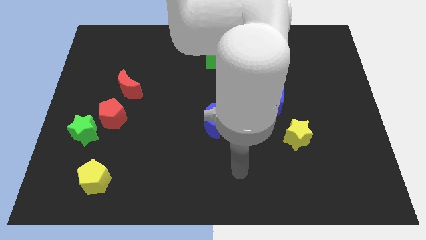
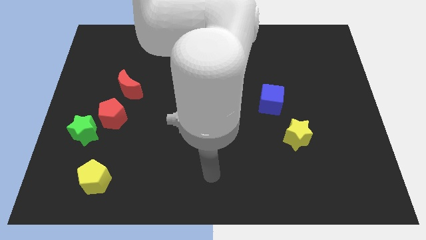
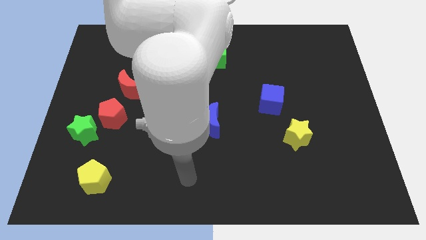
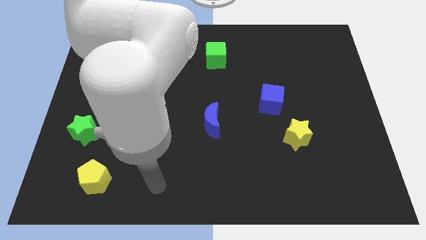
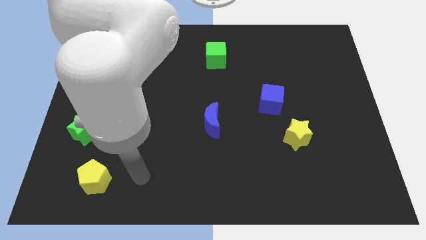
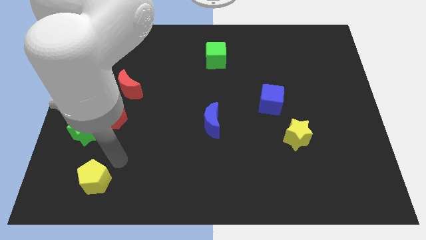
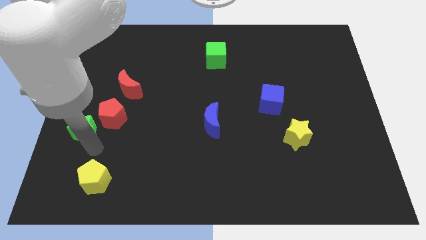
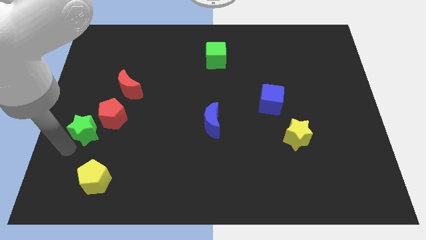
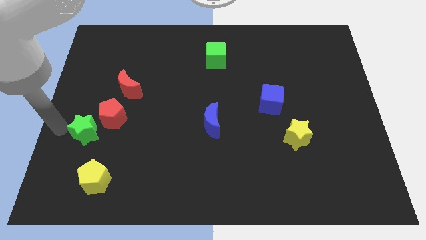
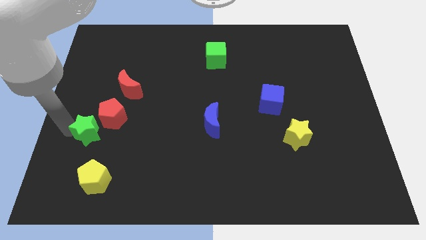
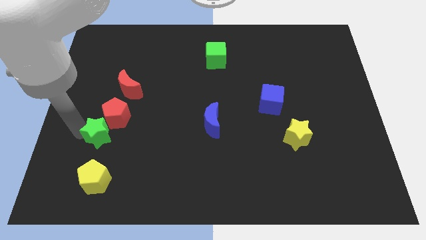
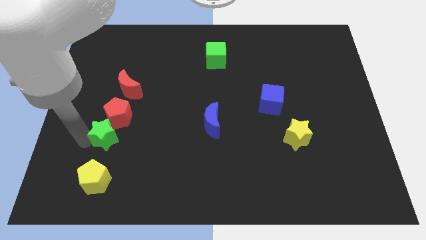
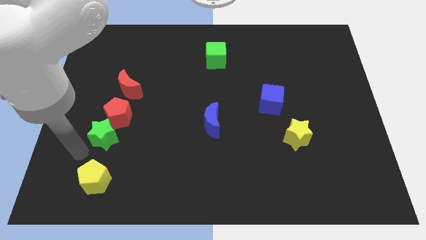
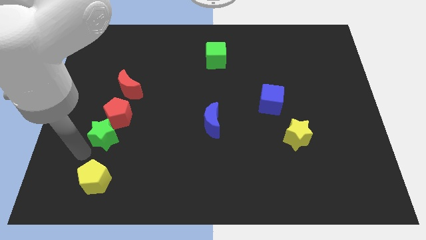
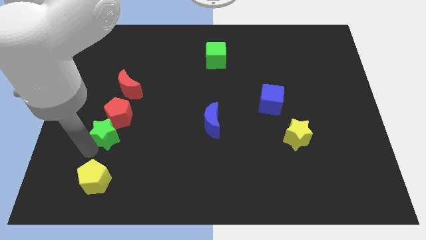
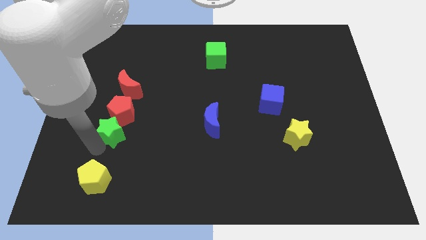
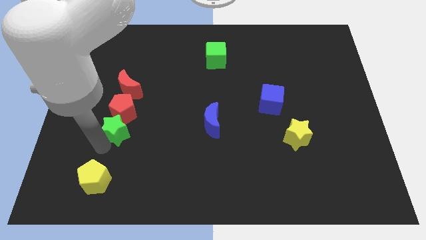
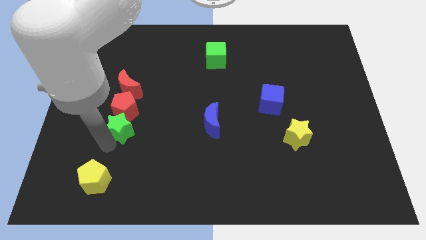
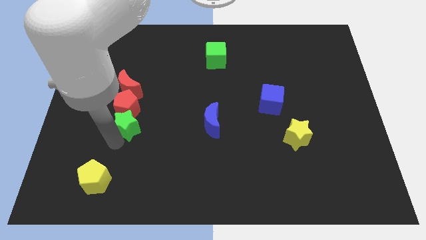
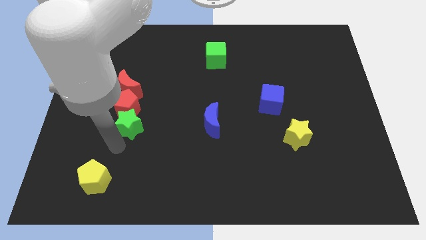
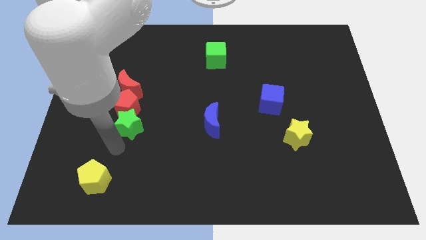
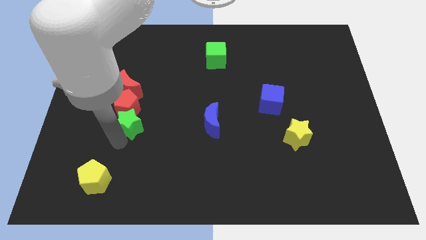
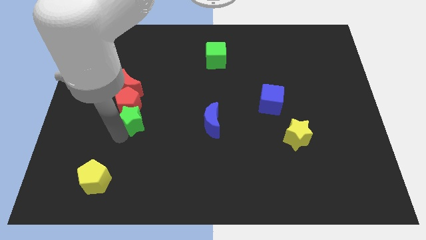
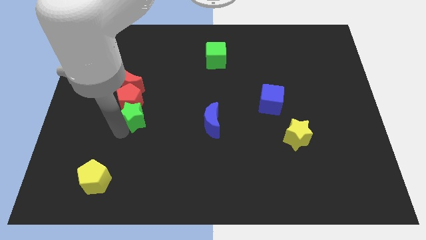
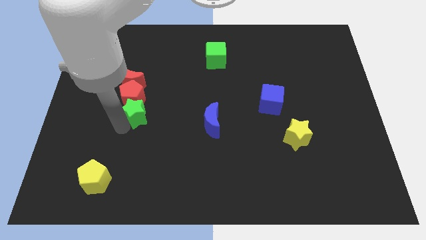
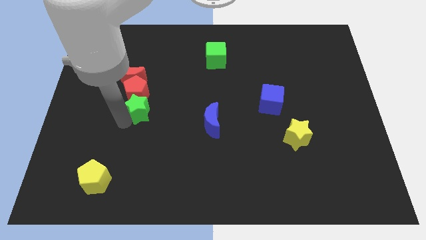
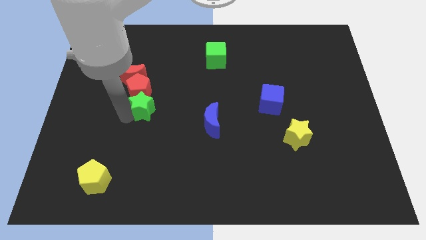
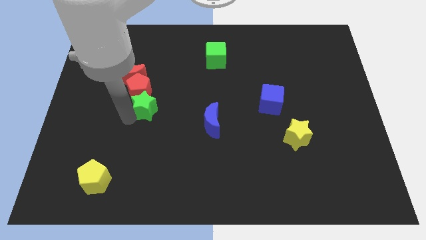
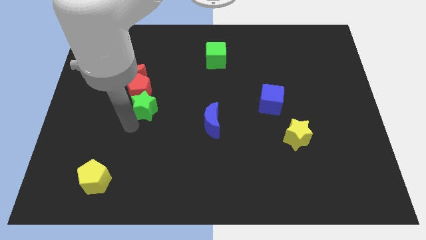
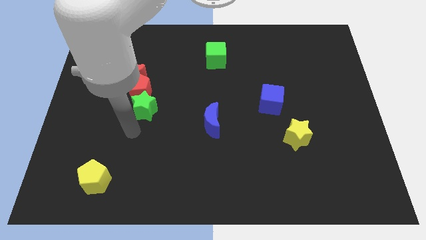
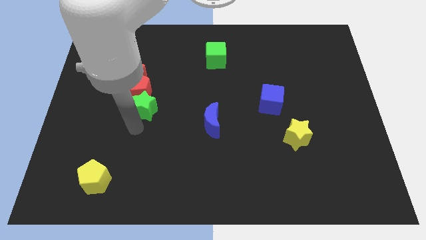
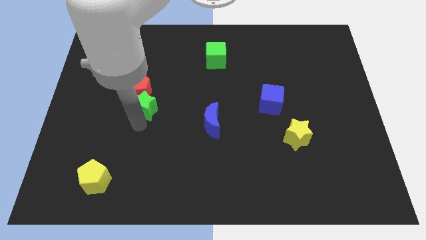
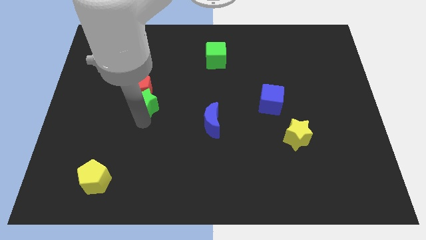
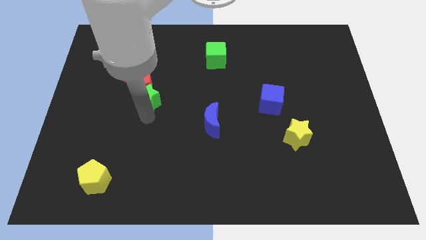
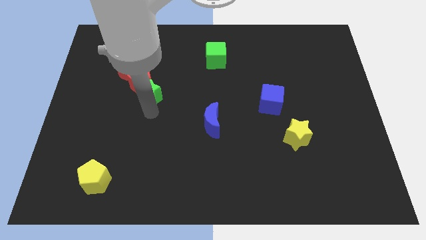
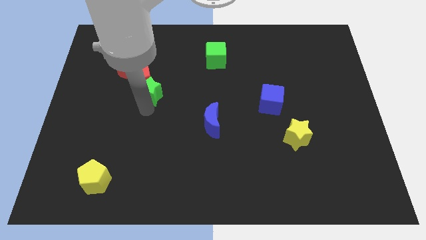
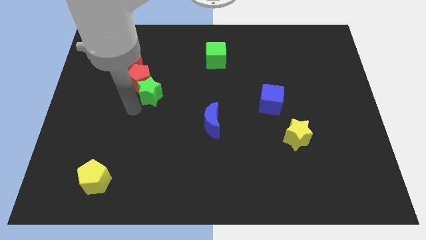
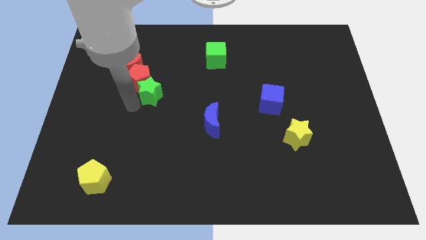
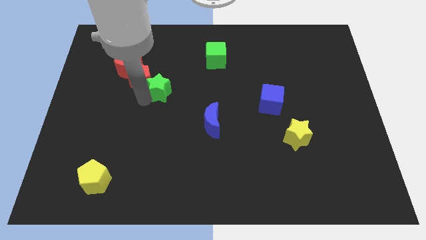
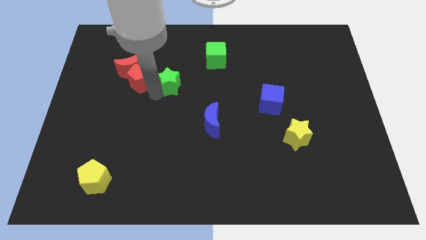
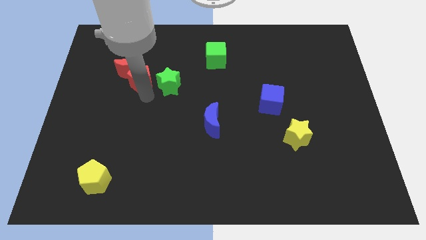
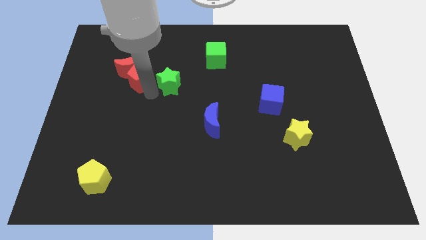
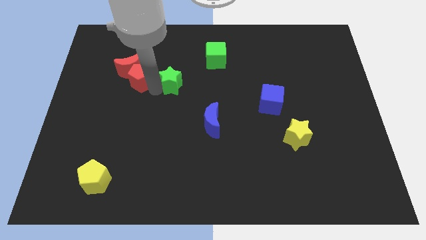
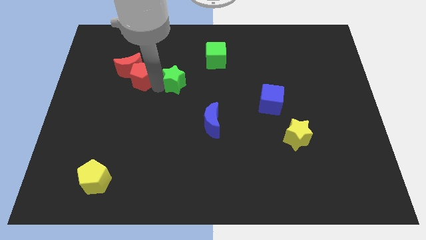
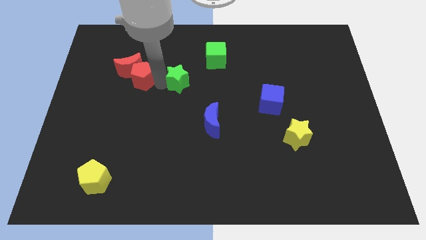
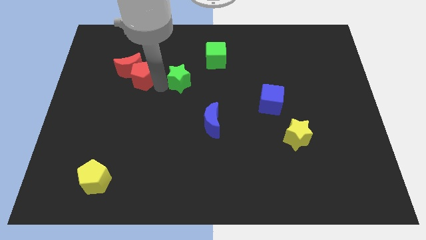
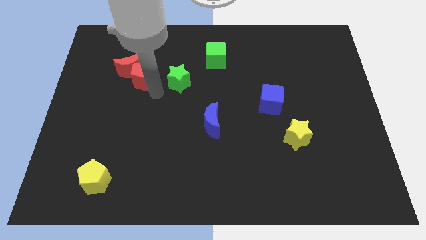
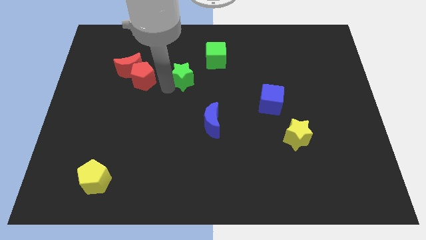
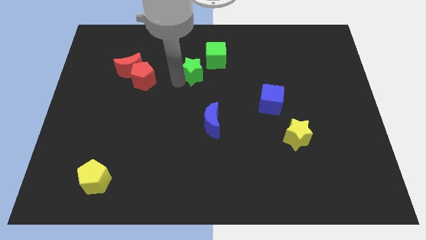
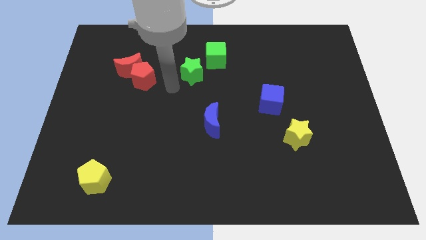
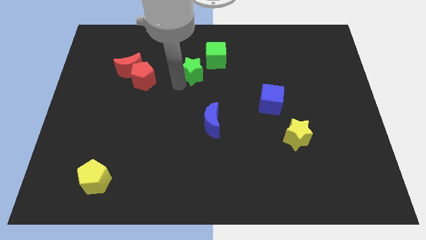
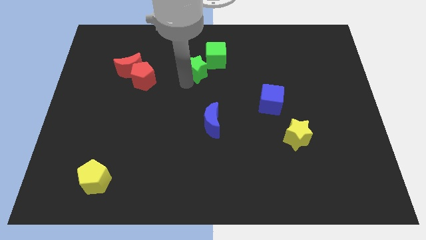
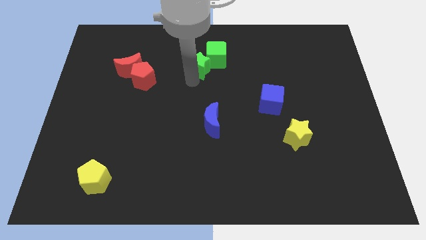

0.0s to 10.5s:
move the green star to the green cube

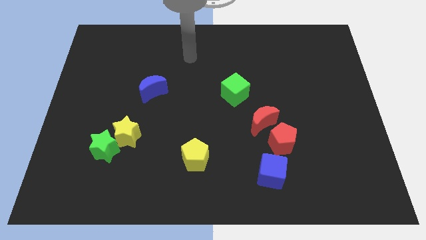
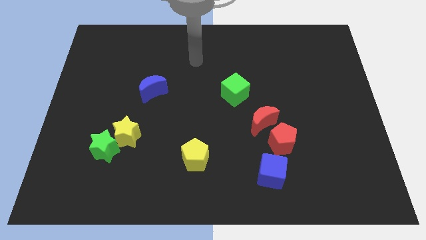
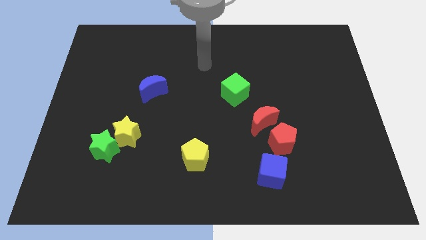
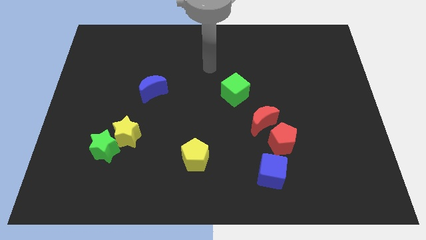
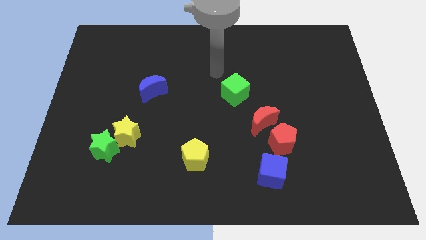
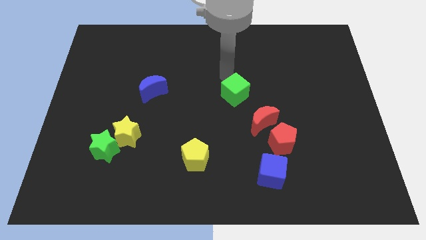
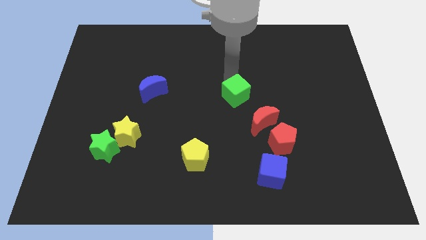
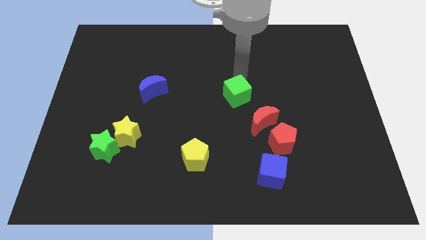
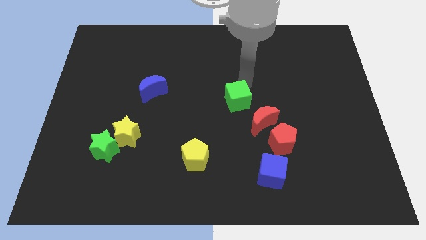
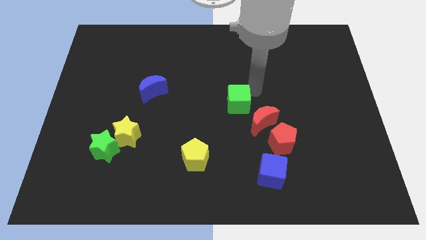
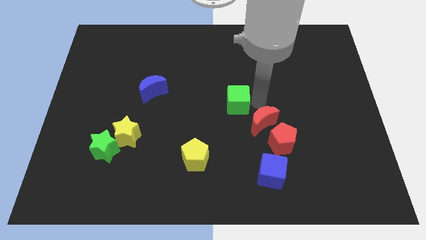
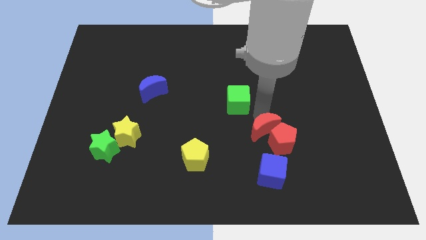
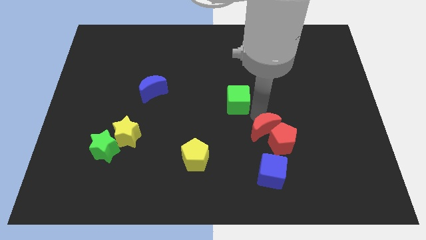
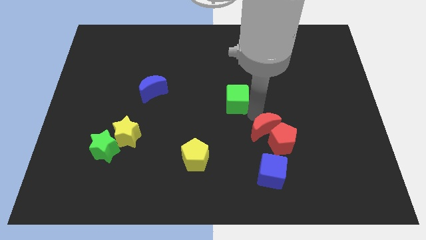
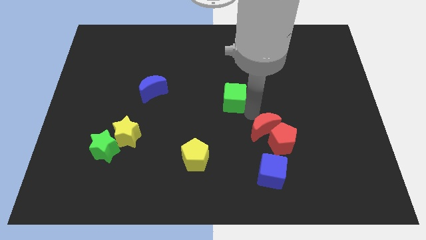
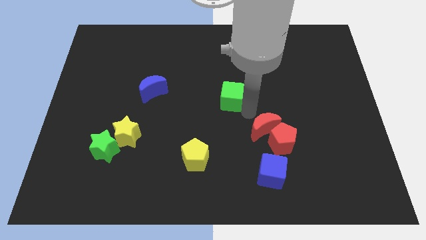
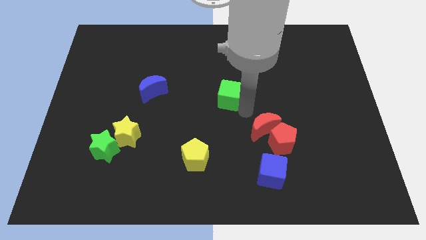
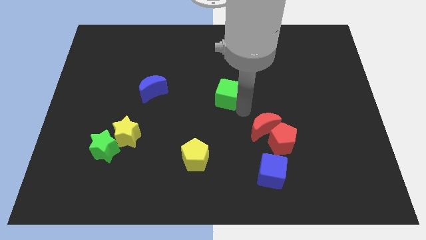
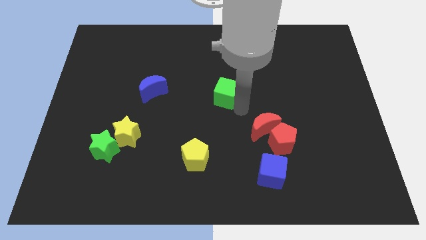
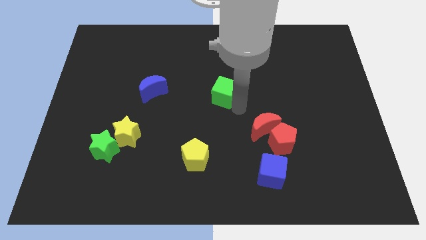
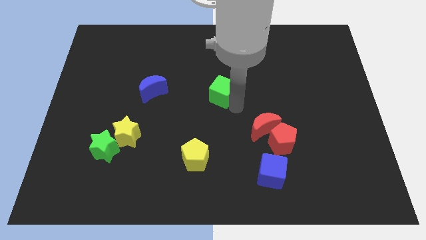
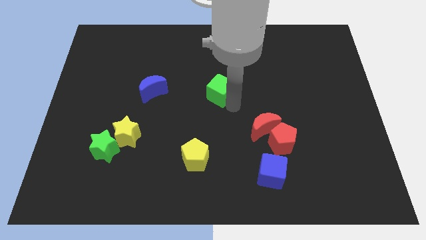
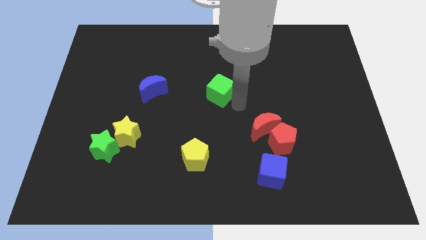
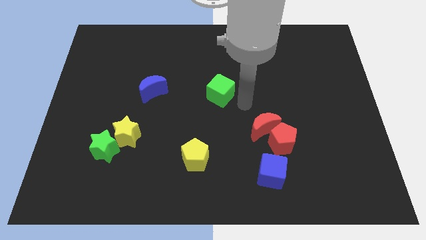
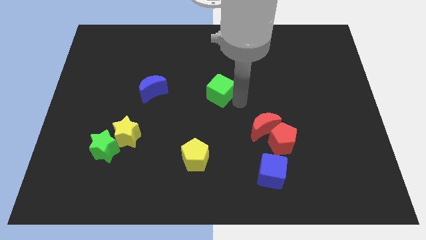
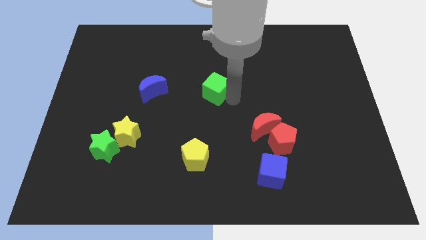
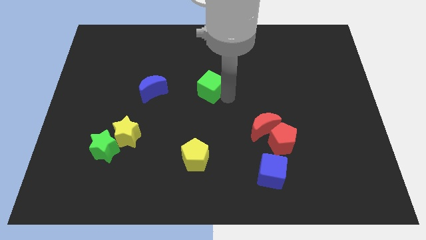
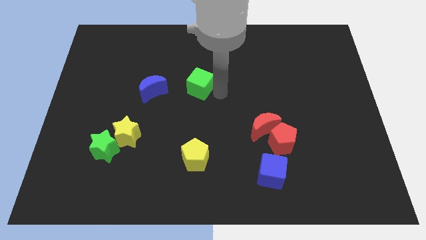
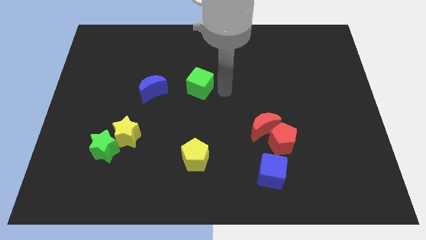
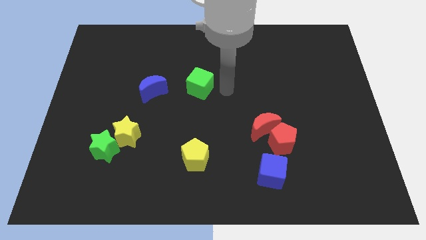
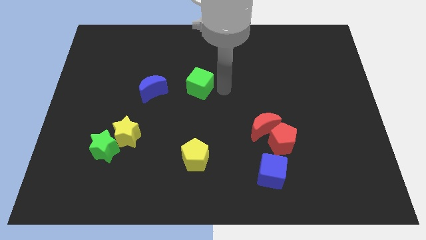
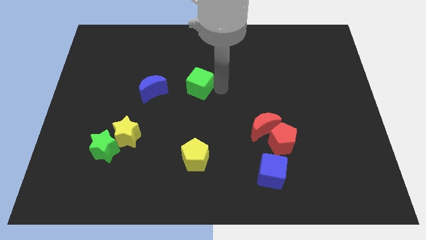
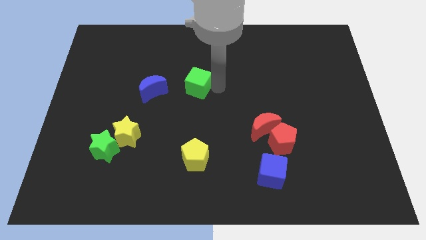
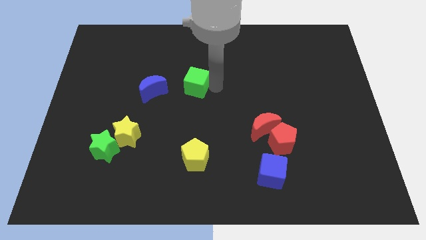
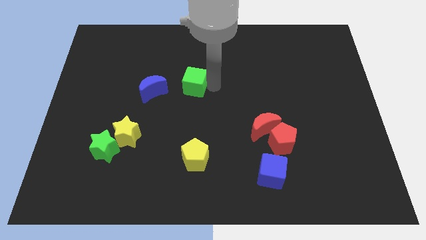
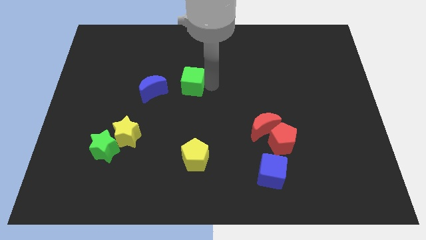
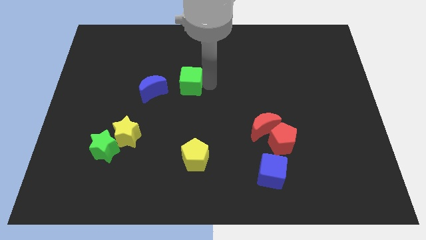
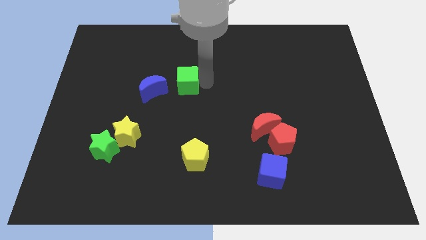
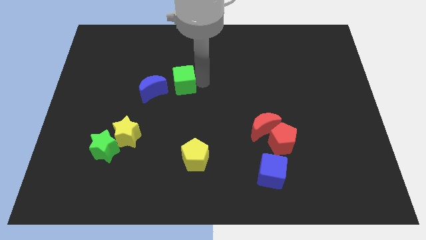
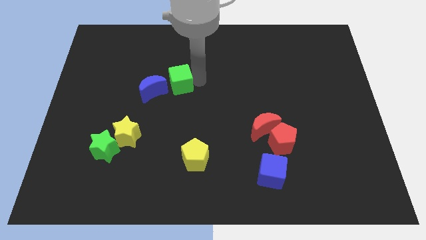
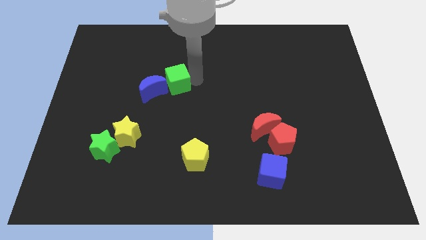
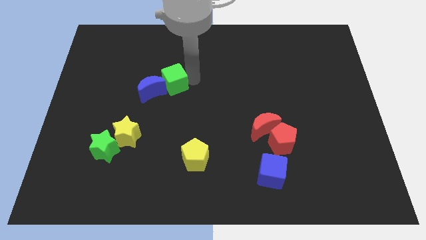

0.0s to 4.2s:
move the green cube close to the blue moon
